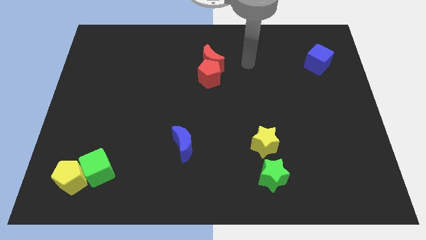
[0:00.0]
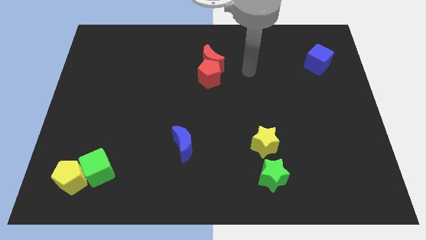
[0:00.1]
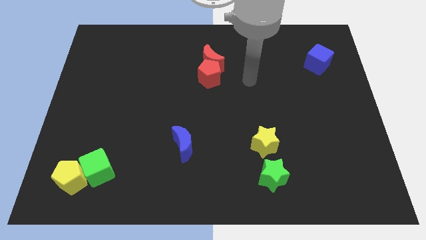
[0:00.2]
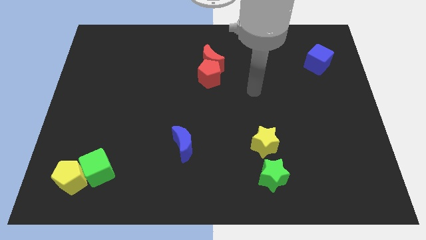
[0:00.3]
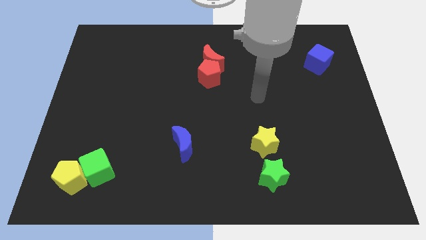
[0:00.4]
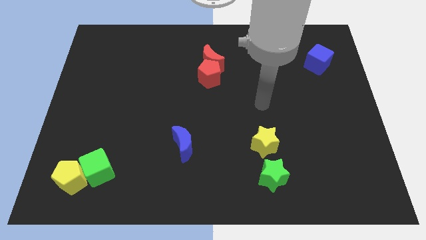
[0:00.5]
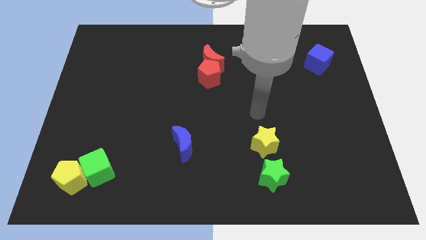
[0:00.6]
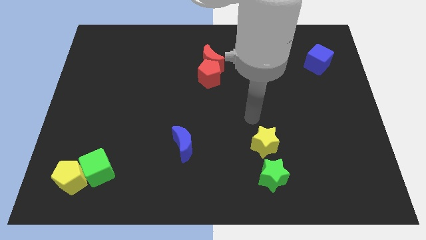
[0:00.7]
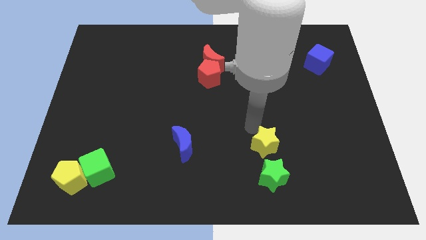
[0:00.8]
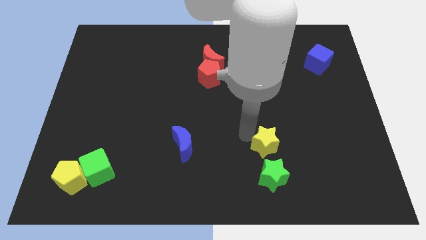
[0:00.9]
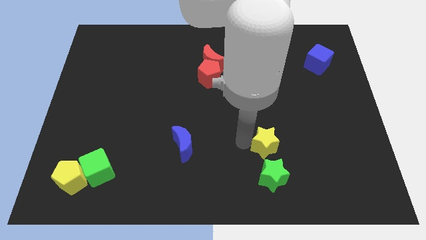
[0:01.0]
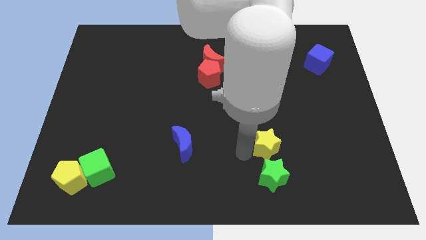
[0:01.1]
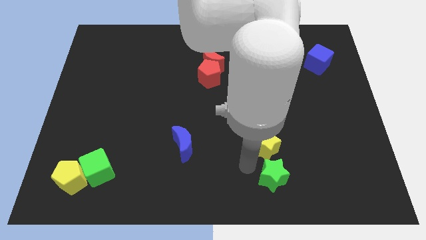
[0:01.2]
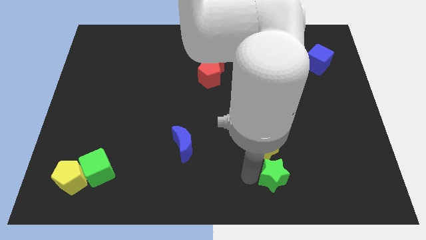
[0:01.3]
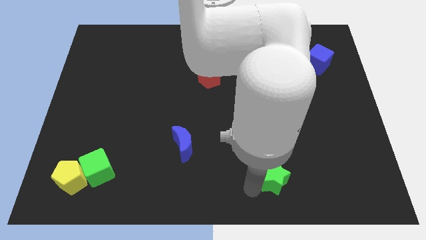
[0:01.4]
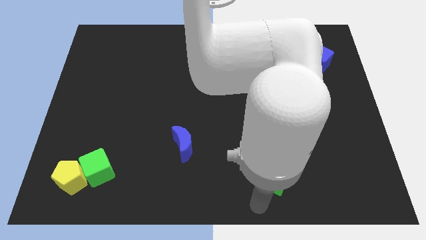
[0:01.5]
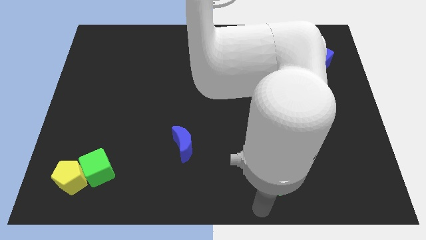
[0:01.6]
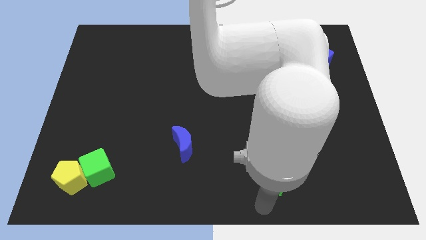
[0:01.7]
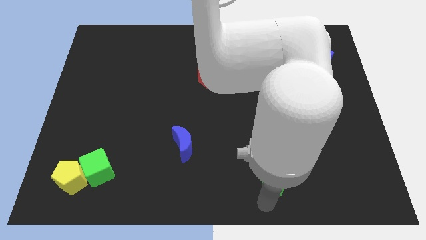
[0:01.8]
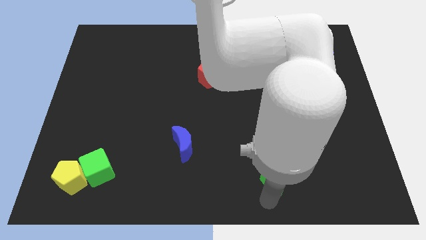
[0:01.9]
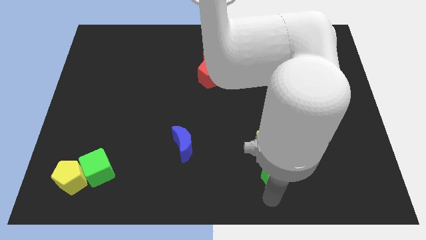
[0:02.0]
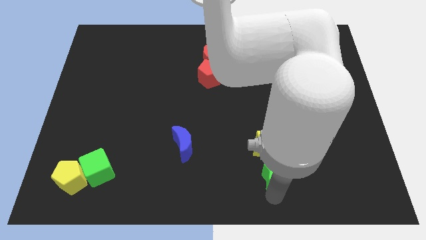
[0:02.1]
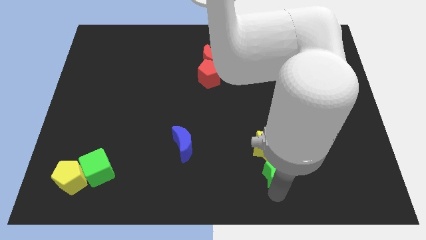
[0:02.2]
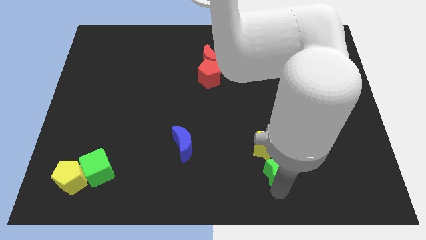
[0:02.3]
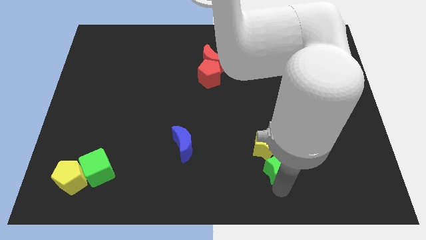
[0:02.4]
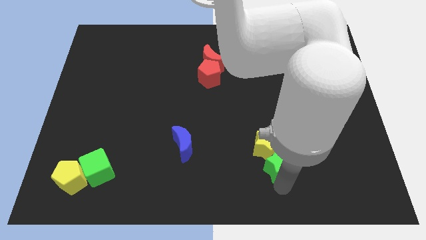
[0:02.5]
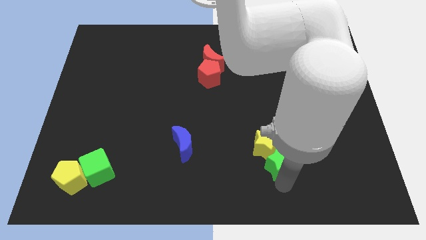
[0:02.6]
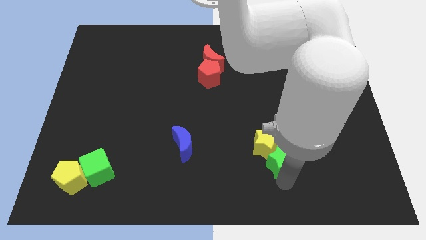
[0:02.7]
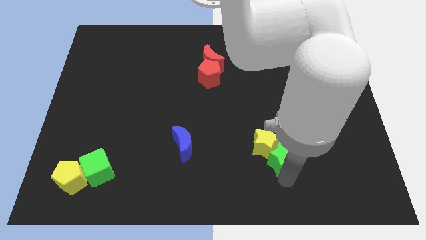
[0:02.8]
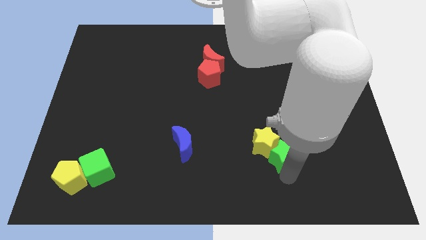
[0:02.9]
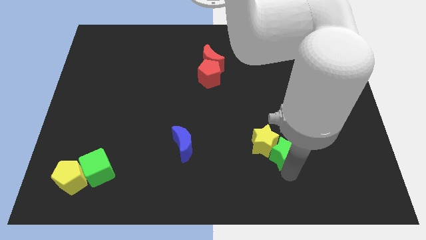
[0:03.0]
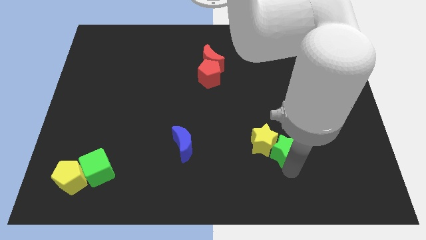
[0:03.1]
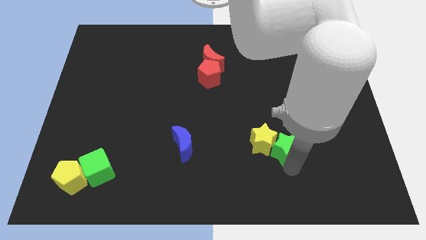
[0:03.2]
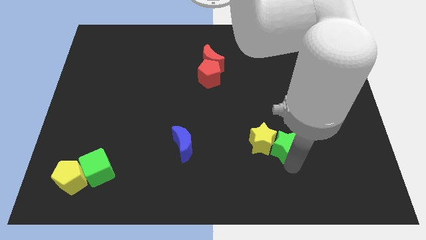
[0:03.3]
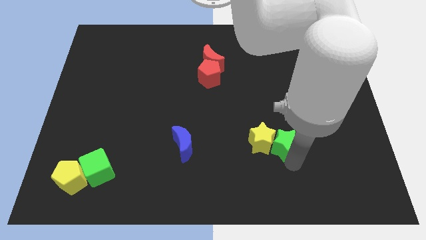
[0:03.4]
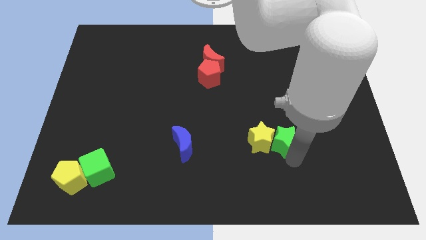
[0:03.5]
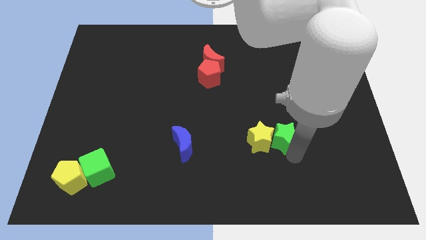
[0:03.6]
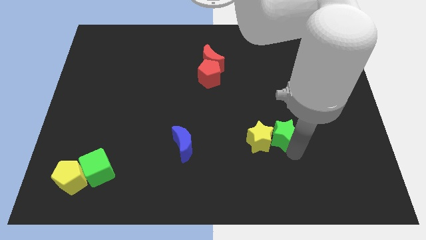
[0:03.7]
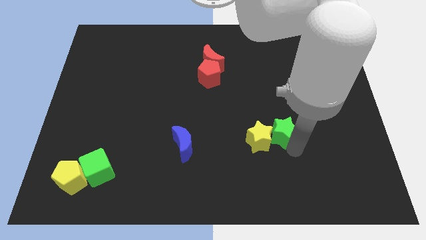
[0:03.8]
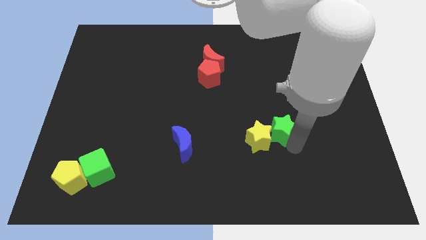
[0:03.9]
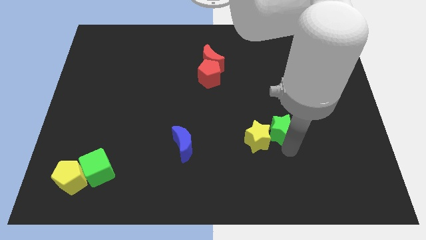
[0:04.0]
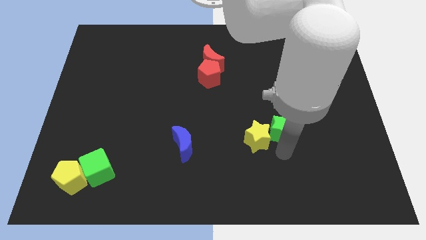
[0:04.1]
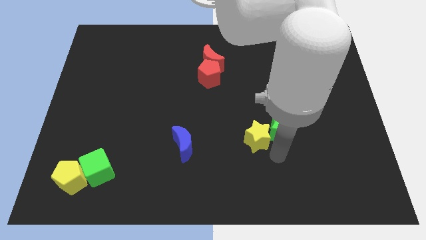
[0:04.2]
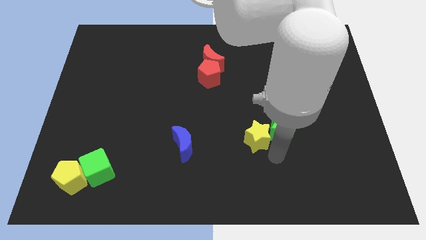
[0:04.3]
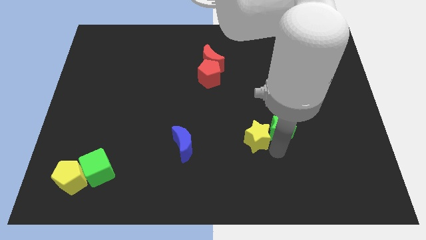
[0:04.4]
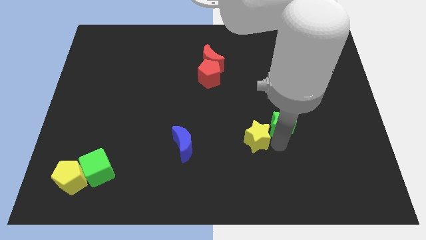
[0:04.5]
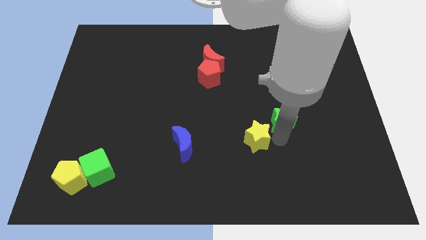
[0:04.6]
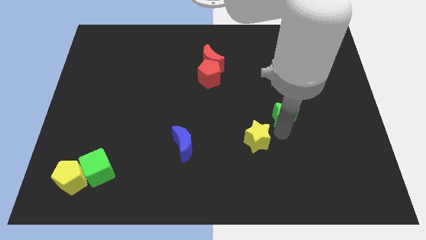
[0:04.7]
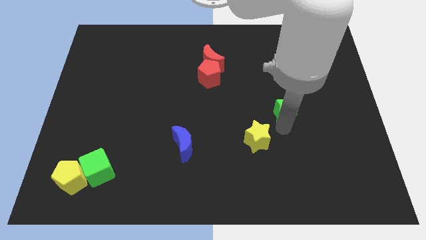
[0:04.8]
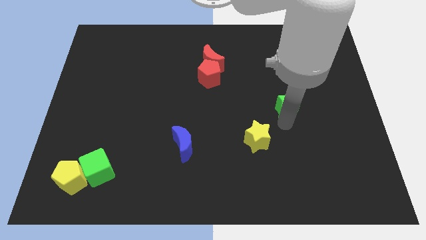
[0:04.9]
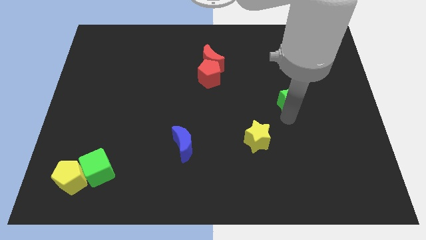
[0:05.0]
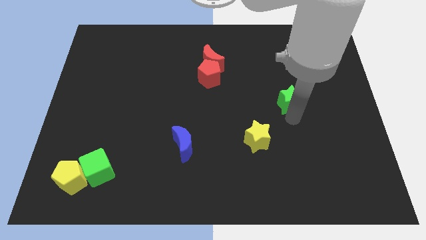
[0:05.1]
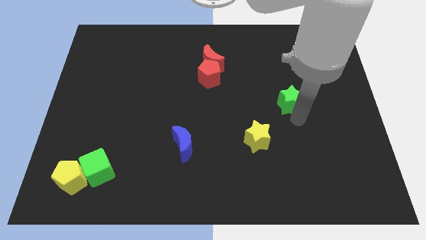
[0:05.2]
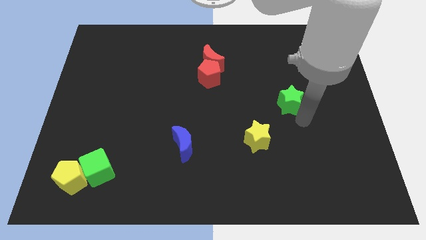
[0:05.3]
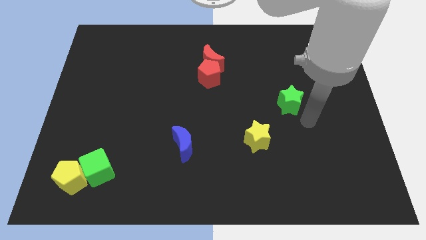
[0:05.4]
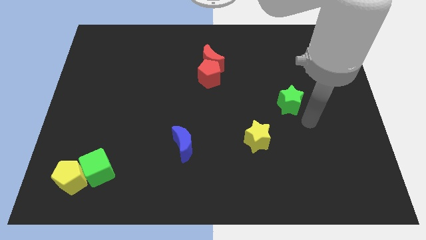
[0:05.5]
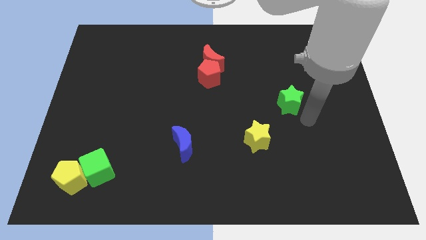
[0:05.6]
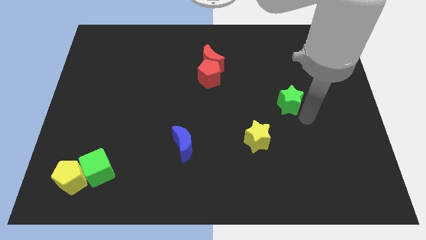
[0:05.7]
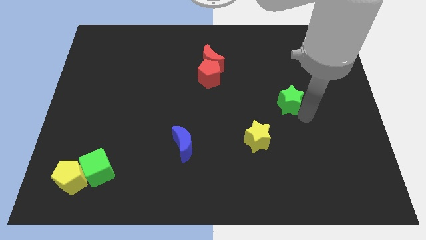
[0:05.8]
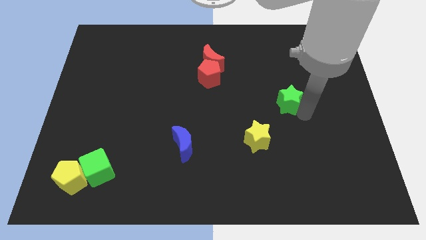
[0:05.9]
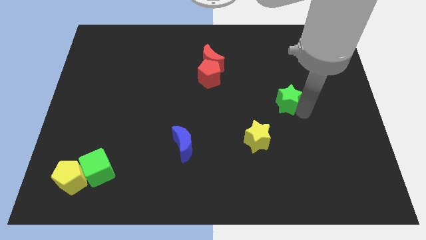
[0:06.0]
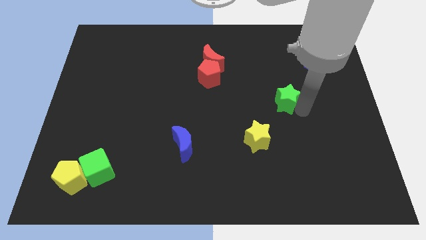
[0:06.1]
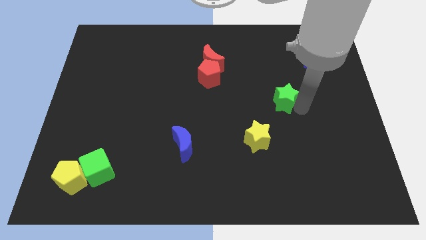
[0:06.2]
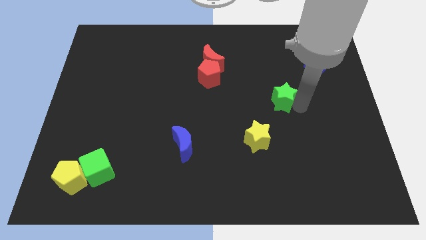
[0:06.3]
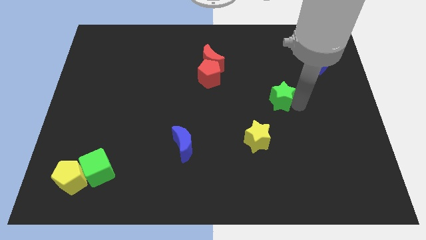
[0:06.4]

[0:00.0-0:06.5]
slide the green star up

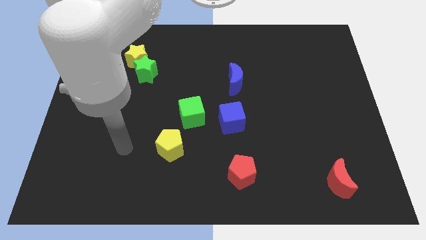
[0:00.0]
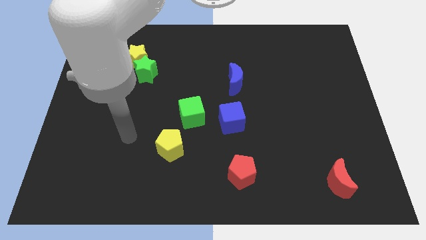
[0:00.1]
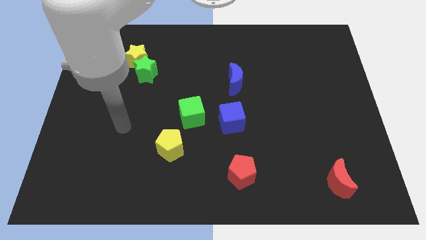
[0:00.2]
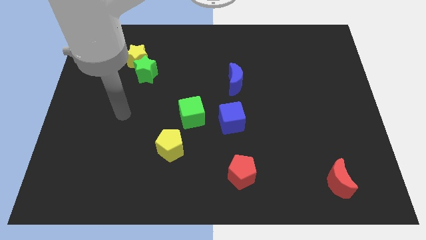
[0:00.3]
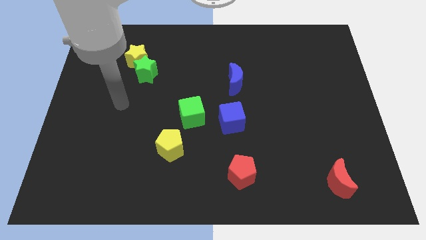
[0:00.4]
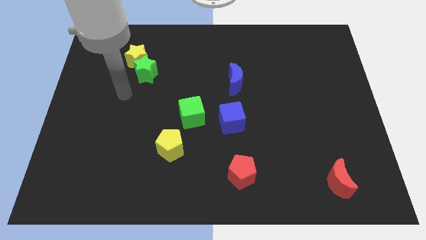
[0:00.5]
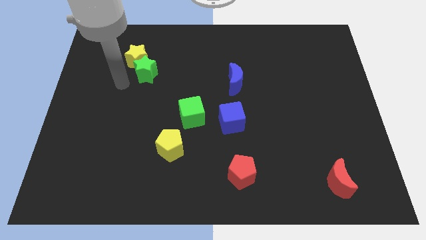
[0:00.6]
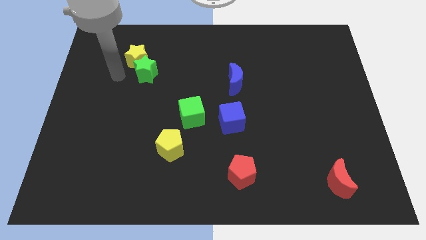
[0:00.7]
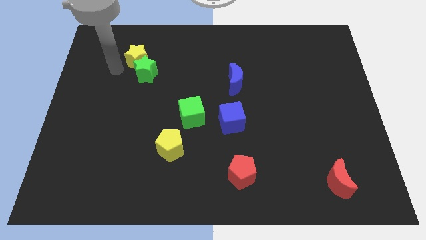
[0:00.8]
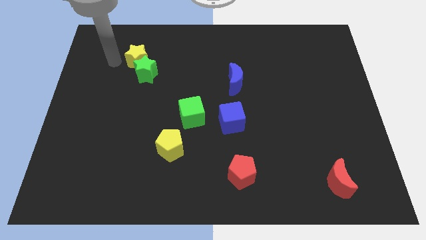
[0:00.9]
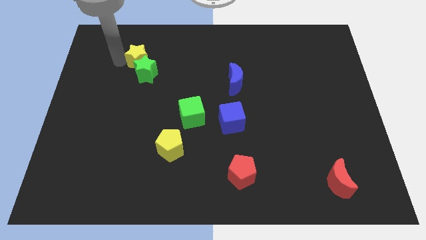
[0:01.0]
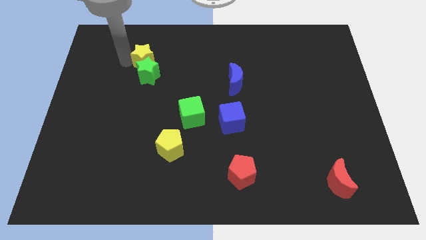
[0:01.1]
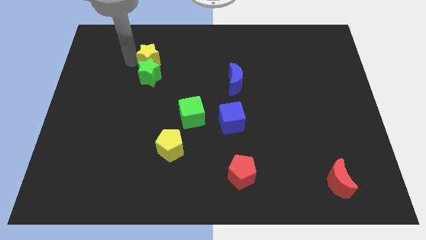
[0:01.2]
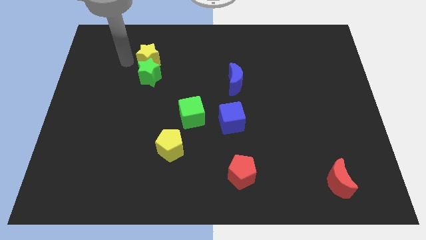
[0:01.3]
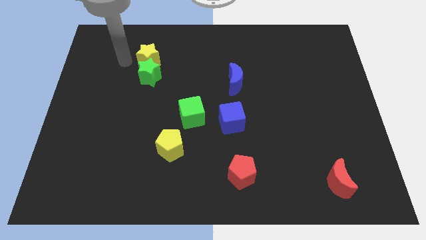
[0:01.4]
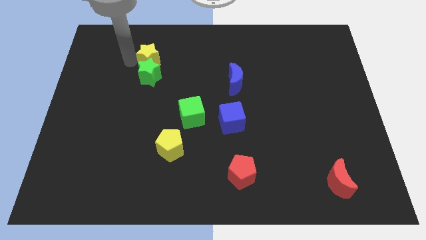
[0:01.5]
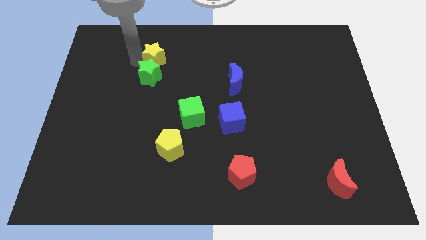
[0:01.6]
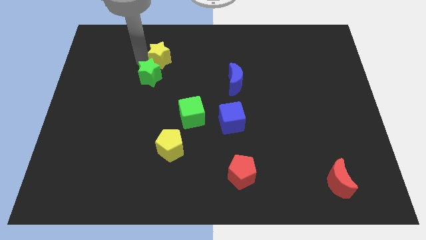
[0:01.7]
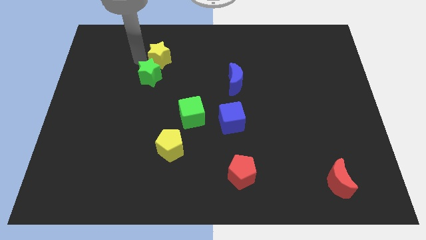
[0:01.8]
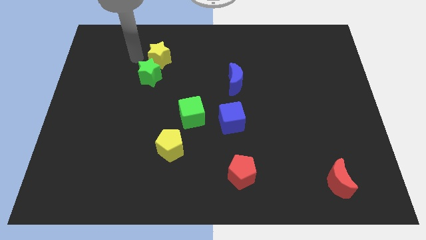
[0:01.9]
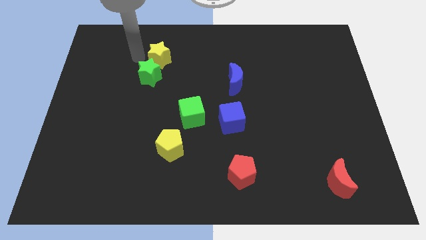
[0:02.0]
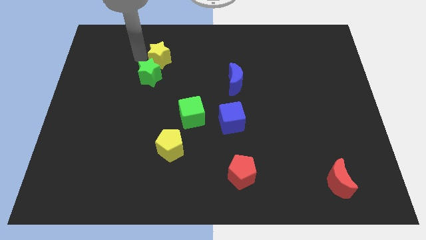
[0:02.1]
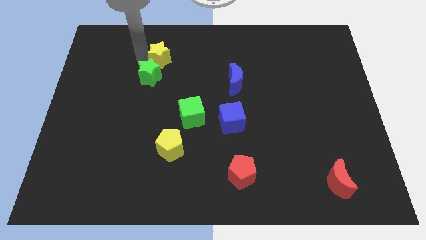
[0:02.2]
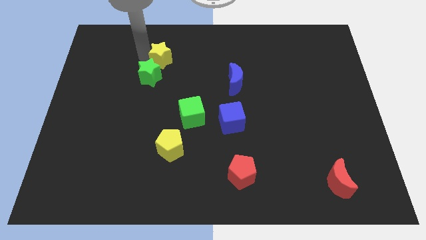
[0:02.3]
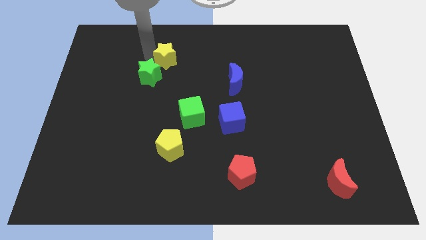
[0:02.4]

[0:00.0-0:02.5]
slightly move the yellow star to the right
